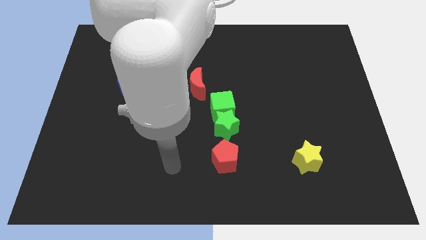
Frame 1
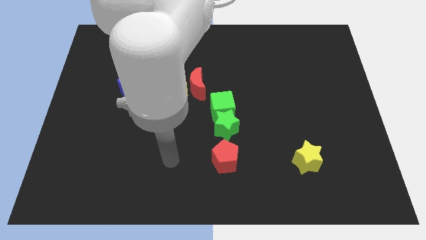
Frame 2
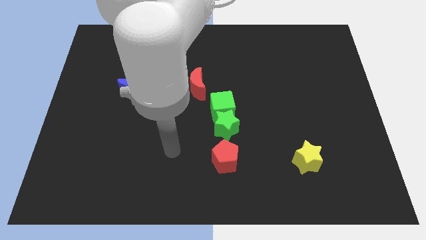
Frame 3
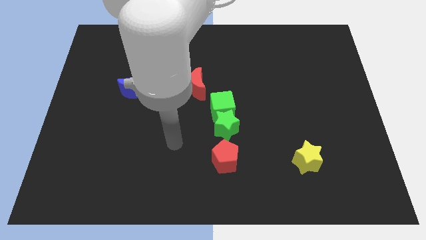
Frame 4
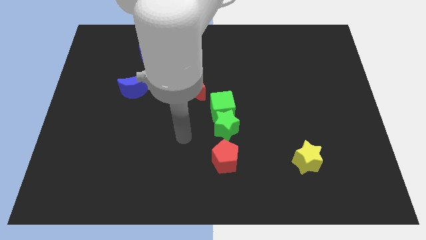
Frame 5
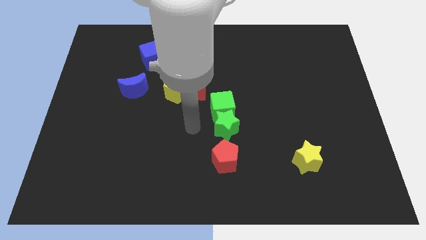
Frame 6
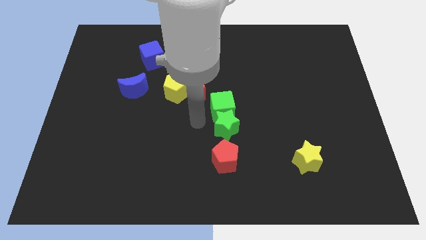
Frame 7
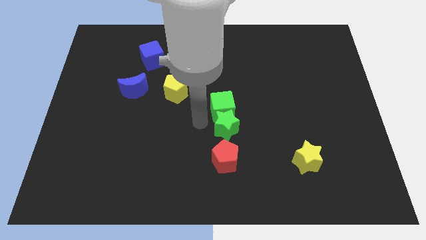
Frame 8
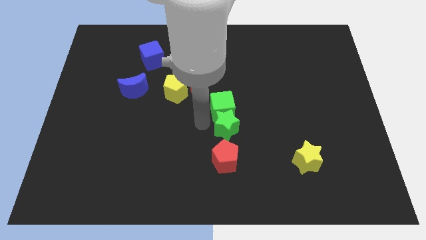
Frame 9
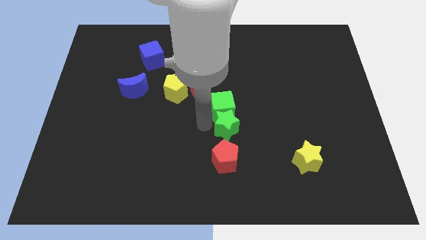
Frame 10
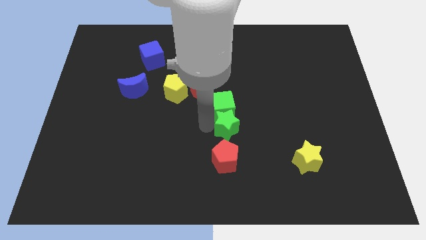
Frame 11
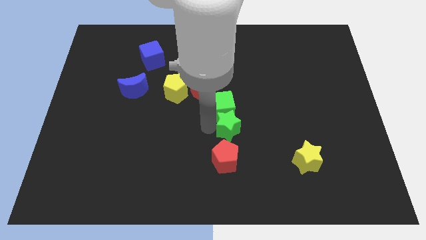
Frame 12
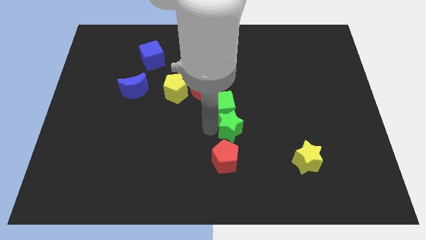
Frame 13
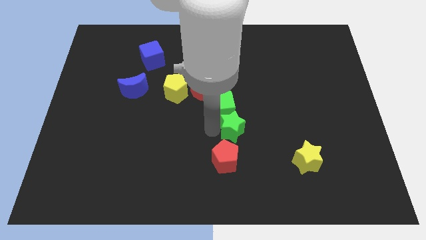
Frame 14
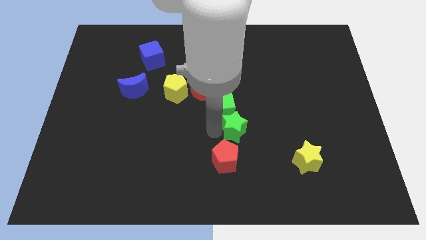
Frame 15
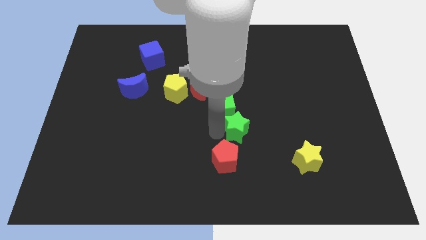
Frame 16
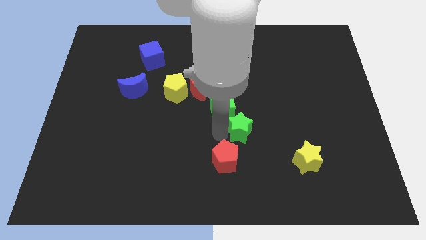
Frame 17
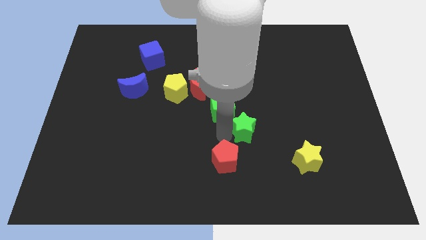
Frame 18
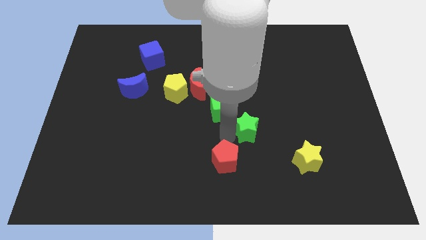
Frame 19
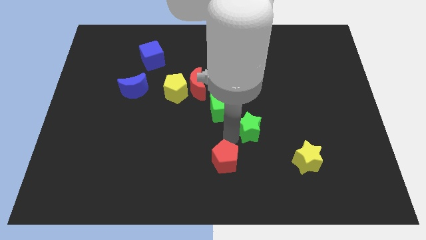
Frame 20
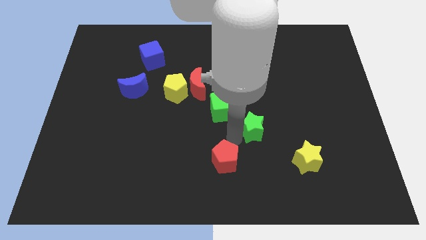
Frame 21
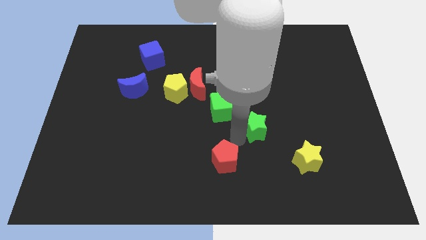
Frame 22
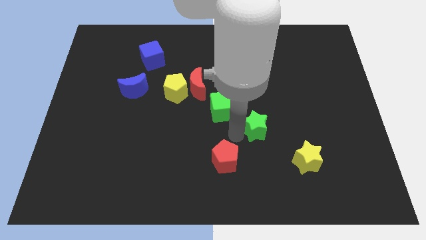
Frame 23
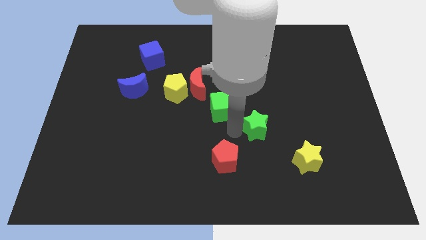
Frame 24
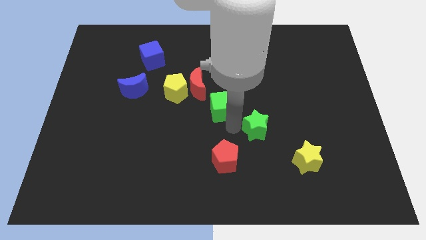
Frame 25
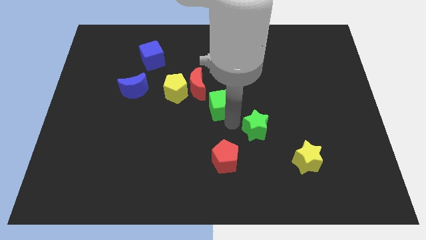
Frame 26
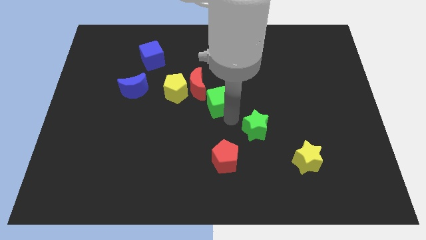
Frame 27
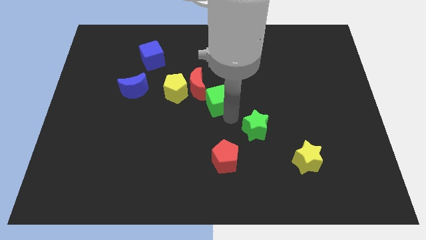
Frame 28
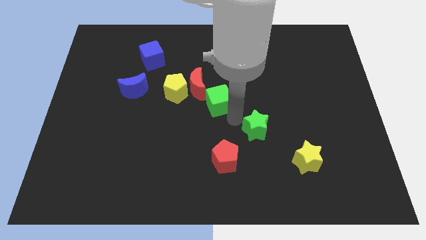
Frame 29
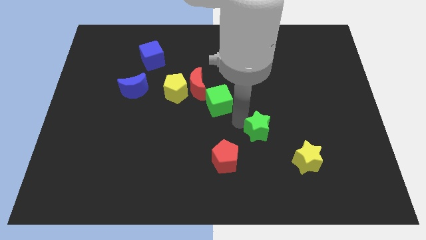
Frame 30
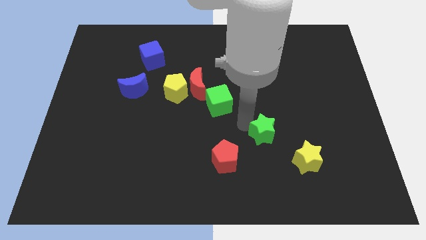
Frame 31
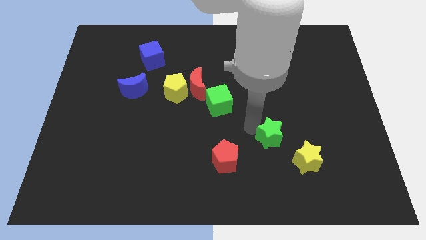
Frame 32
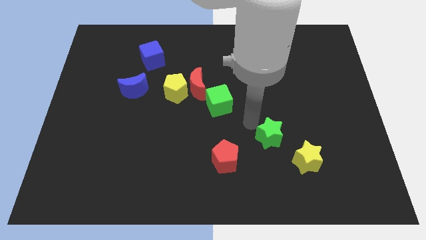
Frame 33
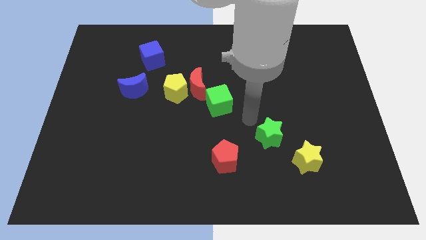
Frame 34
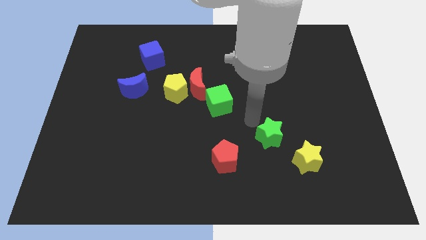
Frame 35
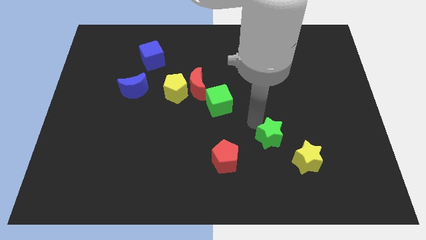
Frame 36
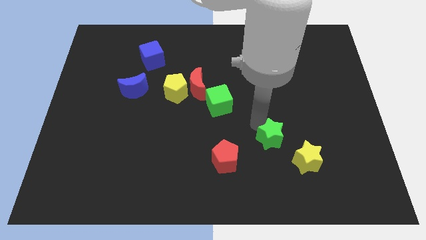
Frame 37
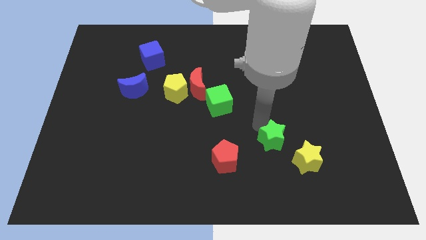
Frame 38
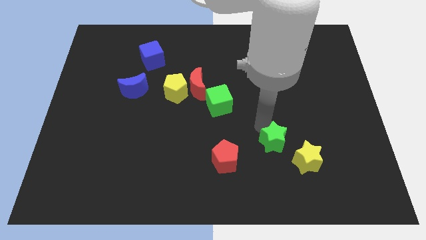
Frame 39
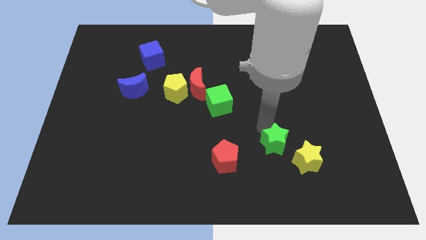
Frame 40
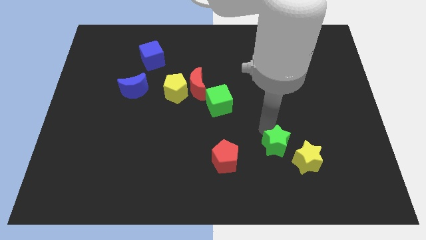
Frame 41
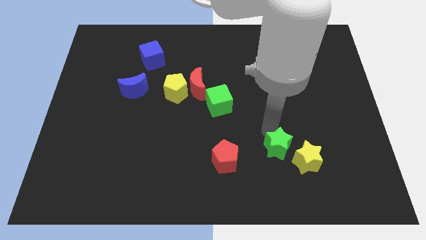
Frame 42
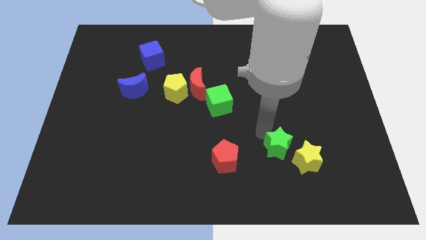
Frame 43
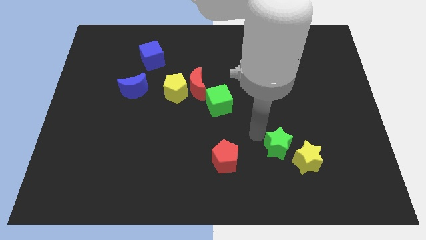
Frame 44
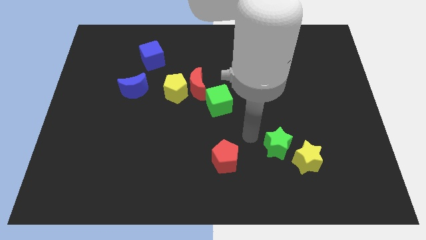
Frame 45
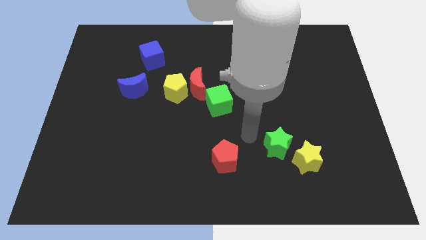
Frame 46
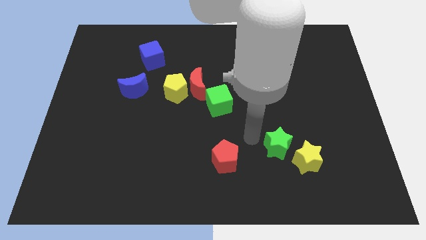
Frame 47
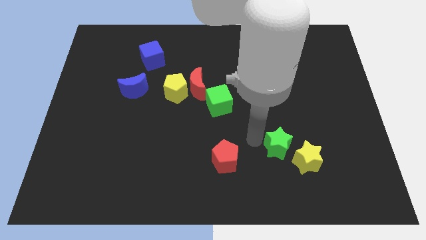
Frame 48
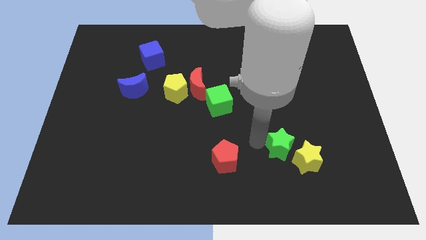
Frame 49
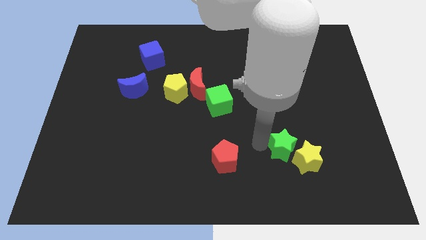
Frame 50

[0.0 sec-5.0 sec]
slide the green star close to the yellow star

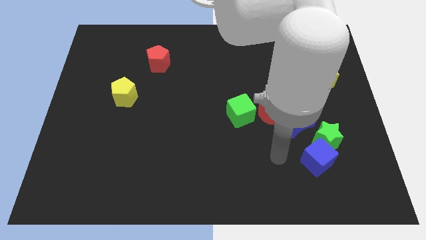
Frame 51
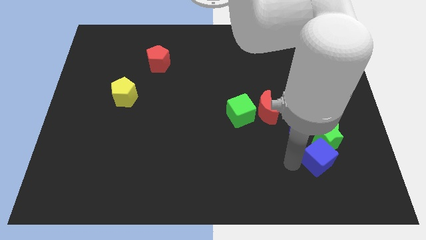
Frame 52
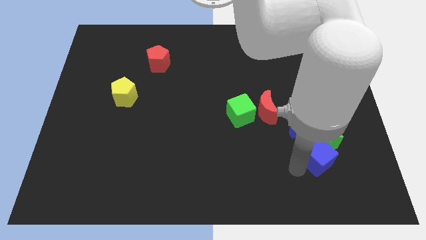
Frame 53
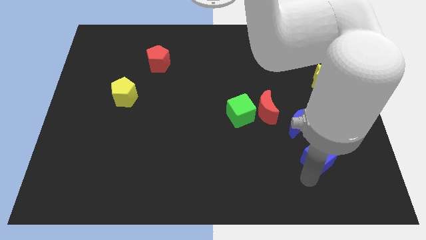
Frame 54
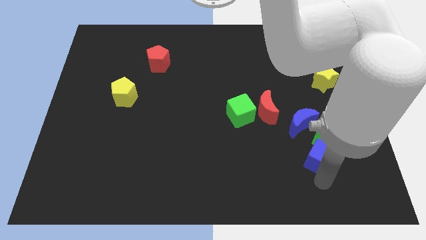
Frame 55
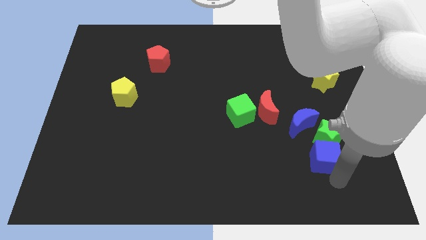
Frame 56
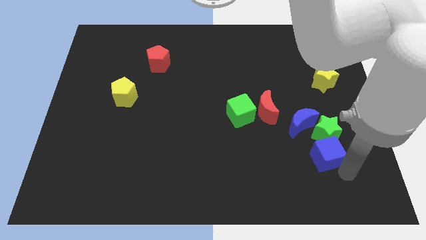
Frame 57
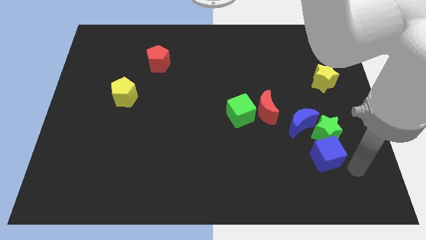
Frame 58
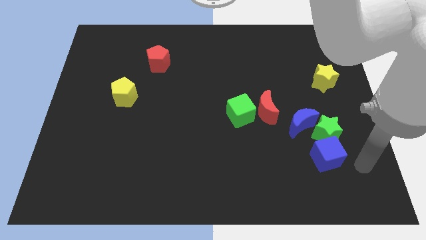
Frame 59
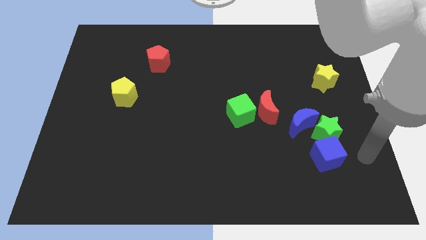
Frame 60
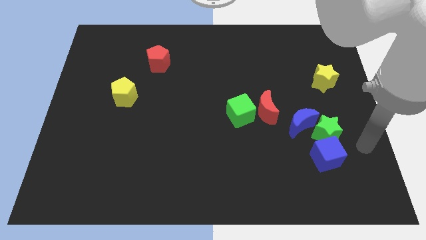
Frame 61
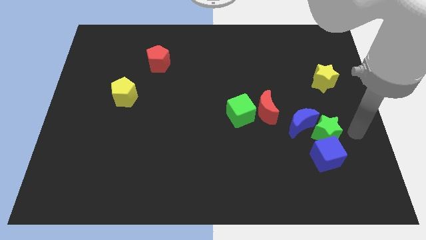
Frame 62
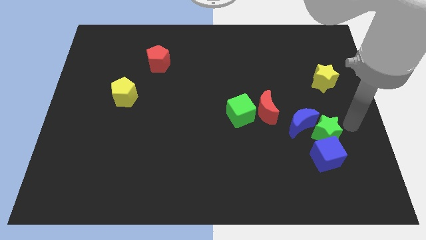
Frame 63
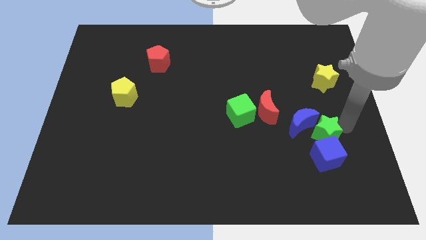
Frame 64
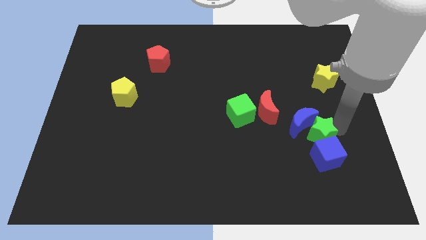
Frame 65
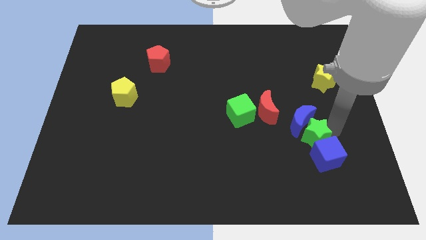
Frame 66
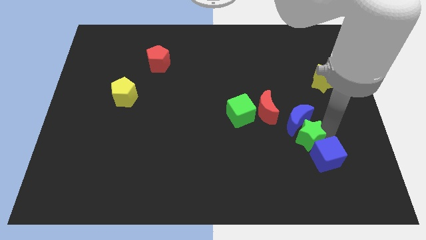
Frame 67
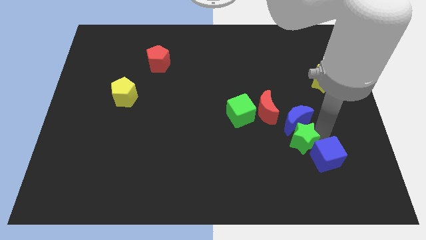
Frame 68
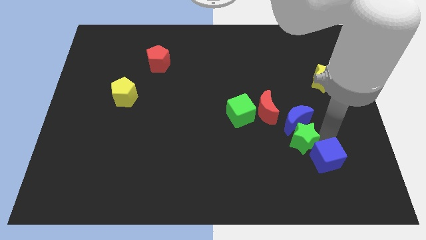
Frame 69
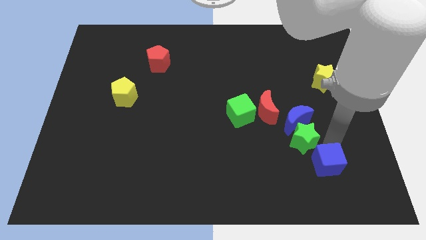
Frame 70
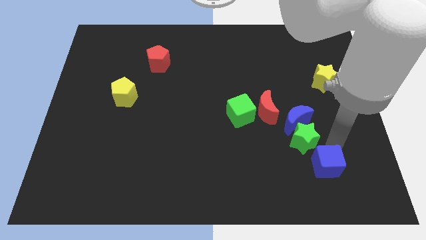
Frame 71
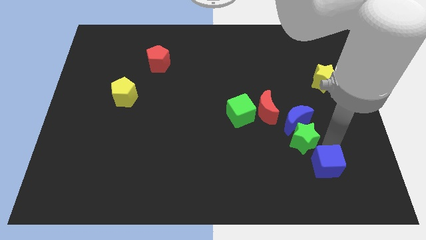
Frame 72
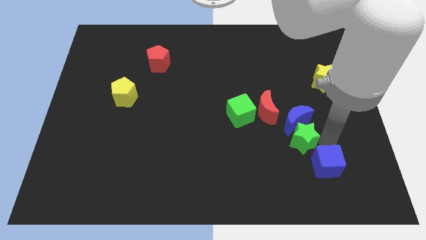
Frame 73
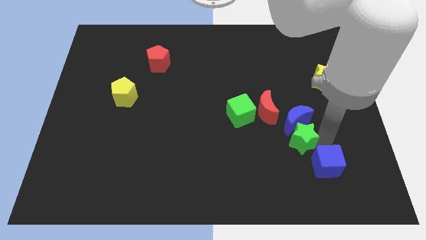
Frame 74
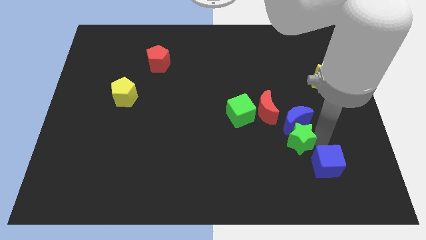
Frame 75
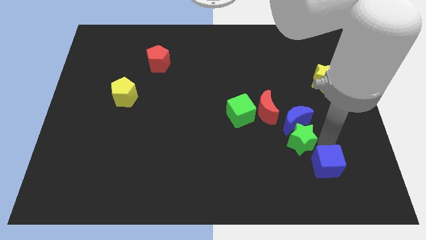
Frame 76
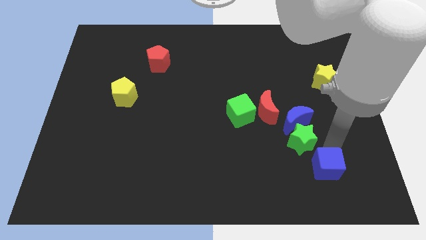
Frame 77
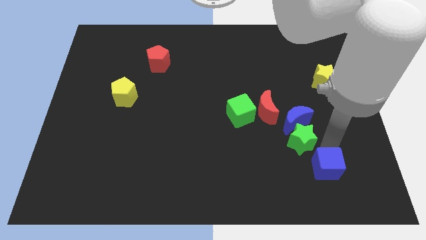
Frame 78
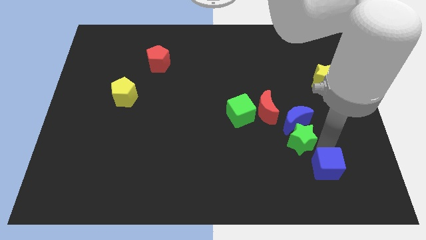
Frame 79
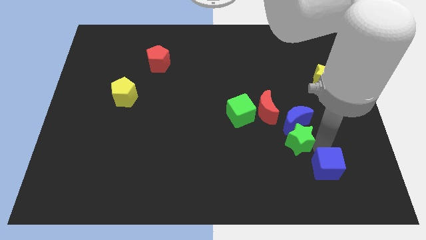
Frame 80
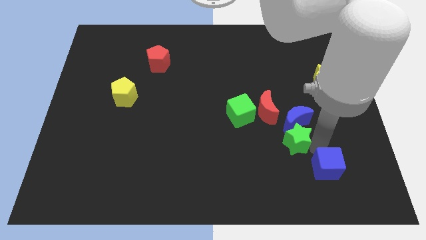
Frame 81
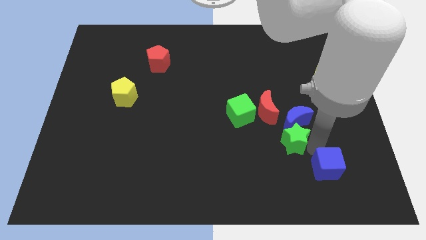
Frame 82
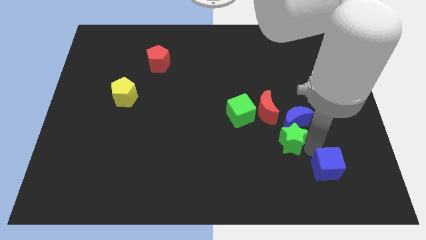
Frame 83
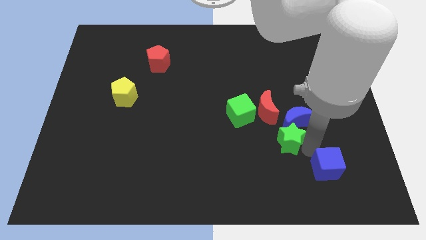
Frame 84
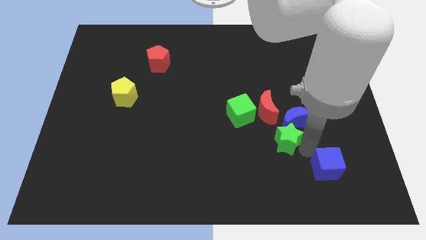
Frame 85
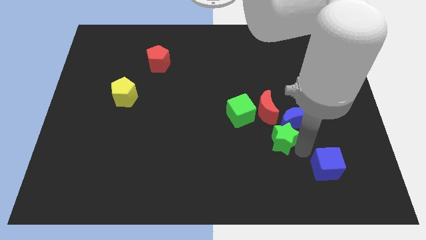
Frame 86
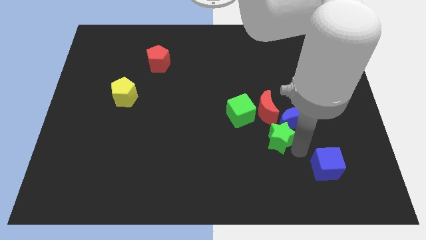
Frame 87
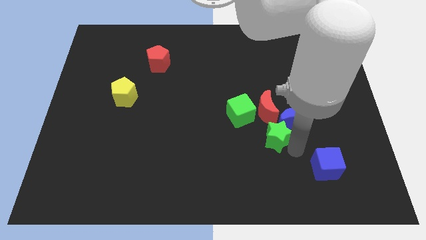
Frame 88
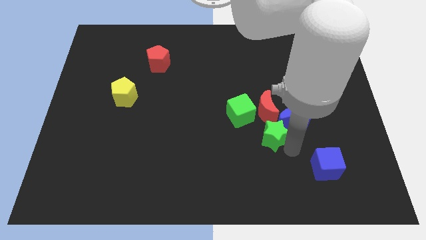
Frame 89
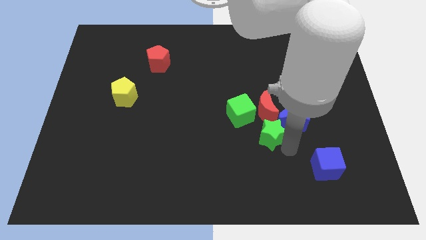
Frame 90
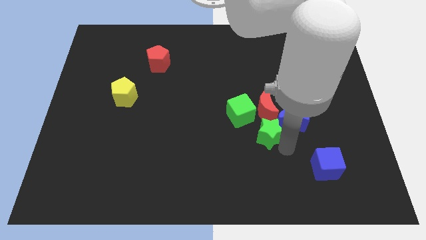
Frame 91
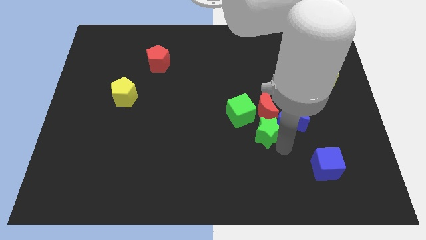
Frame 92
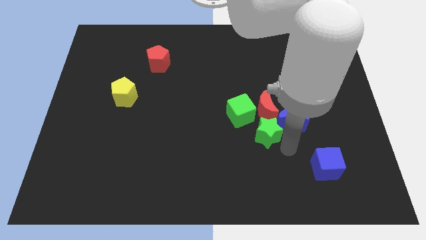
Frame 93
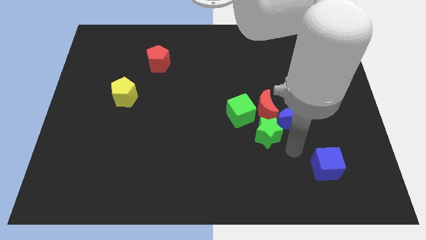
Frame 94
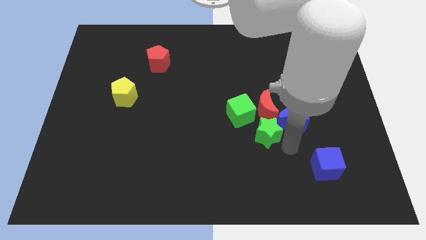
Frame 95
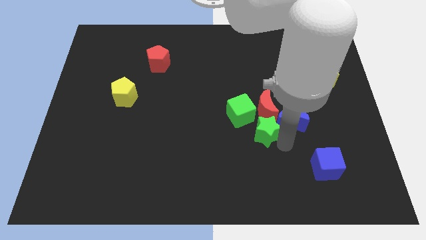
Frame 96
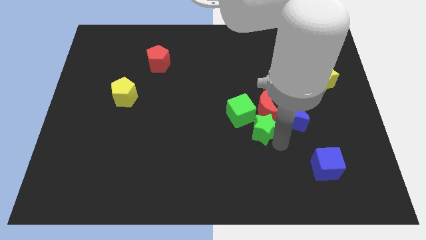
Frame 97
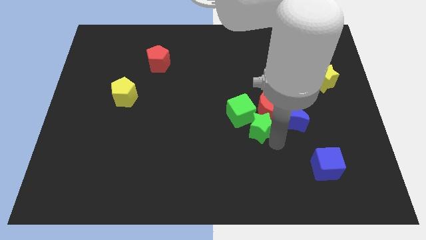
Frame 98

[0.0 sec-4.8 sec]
push the green star towards the green cube
